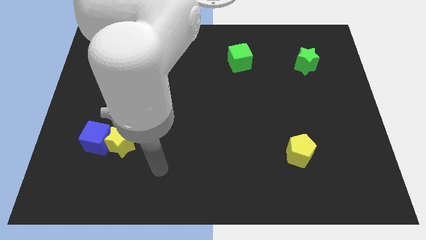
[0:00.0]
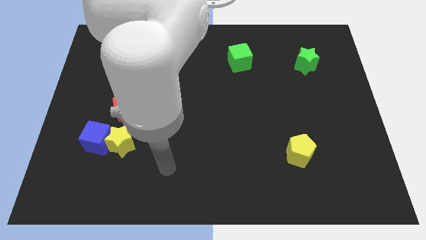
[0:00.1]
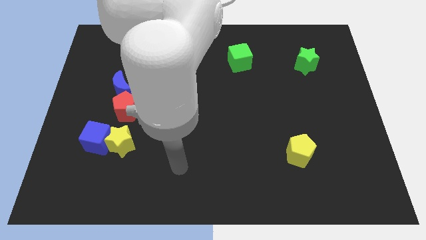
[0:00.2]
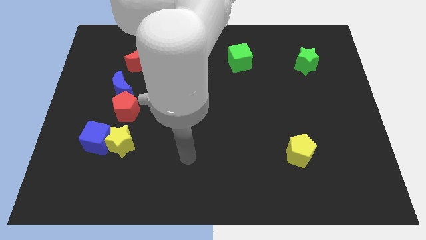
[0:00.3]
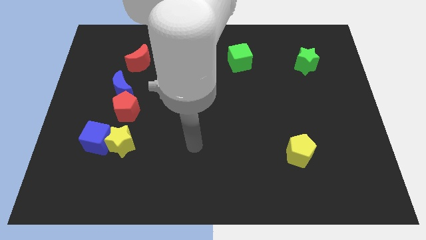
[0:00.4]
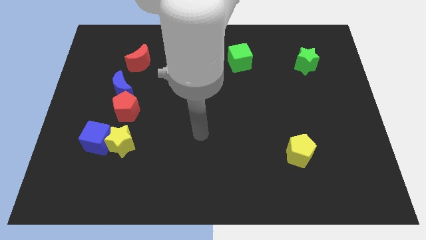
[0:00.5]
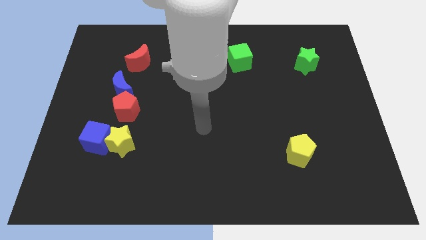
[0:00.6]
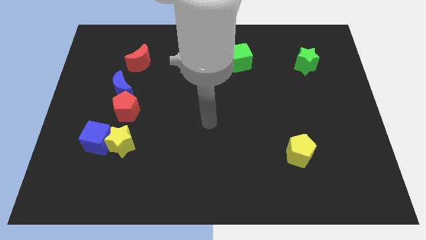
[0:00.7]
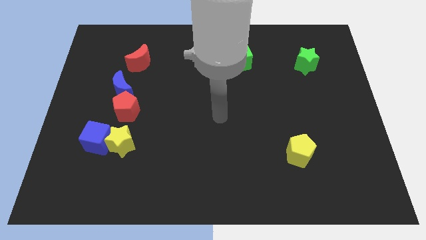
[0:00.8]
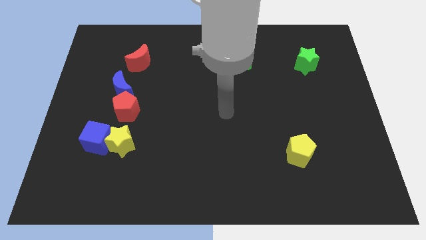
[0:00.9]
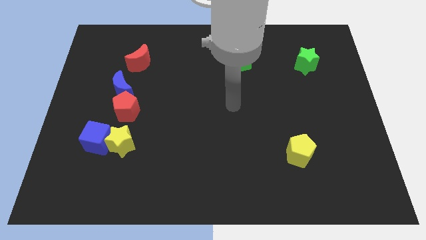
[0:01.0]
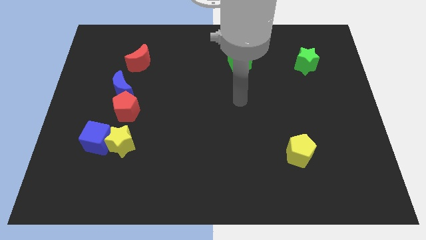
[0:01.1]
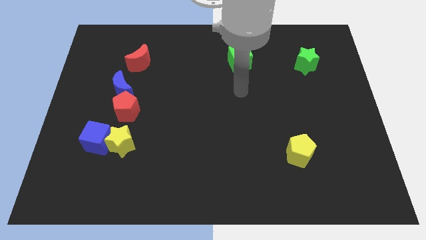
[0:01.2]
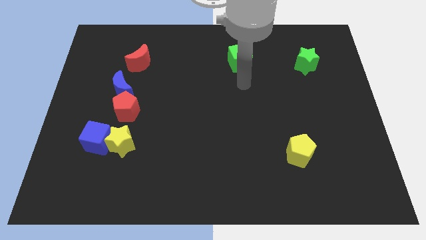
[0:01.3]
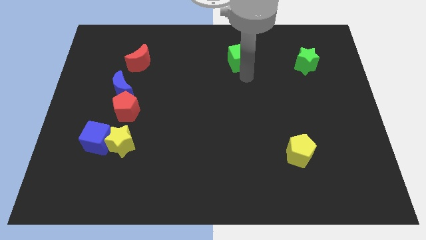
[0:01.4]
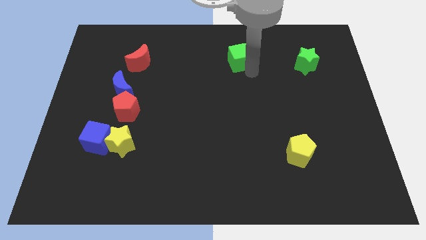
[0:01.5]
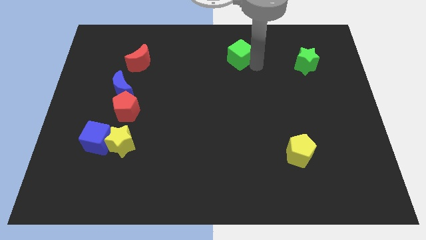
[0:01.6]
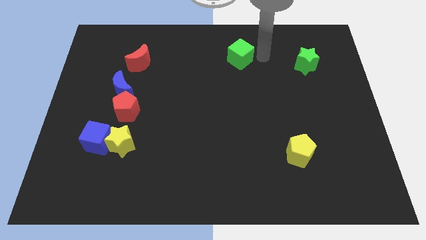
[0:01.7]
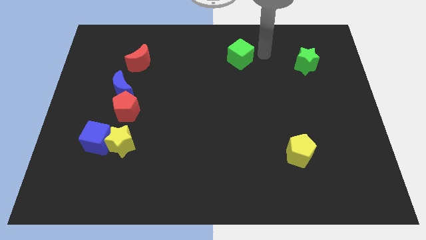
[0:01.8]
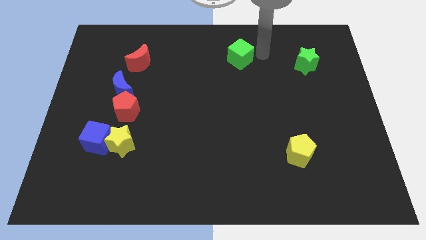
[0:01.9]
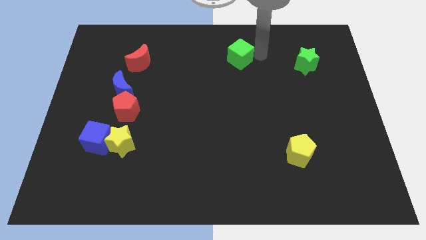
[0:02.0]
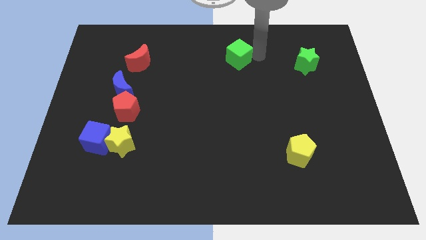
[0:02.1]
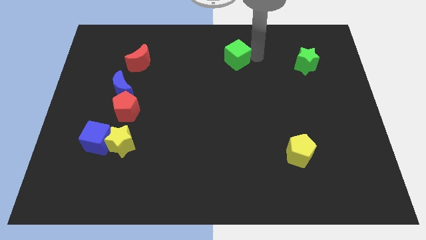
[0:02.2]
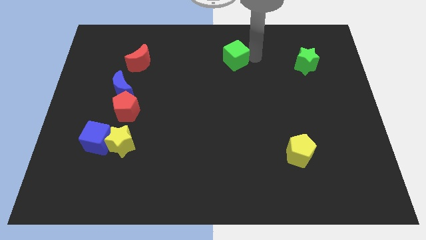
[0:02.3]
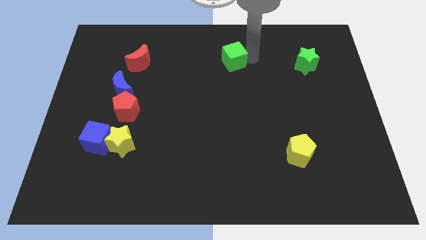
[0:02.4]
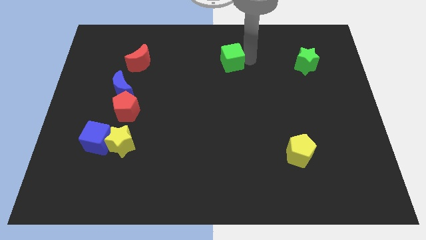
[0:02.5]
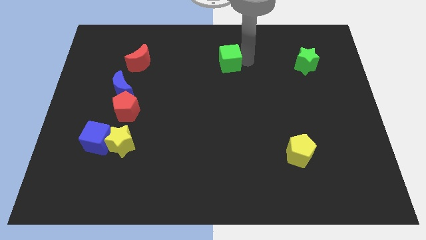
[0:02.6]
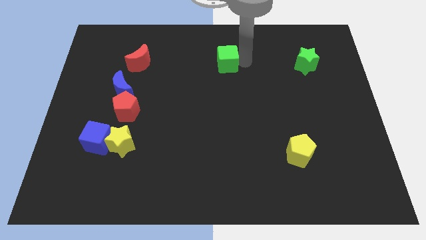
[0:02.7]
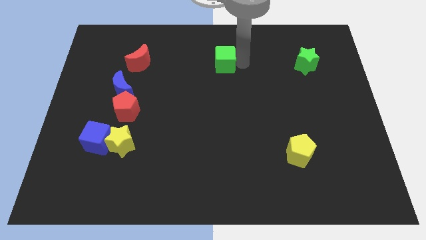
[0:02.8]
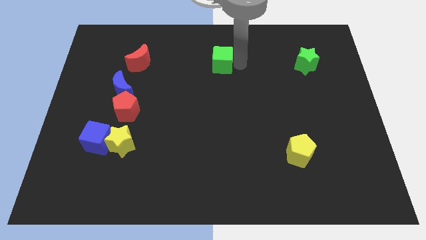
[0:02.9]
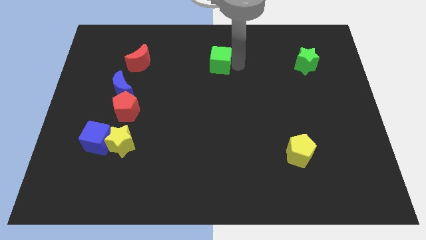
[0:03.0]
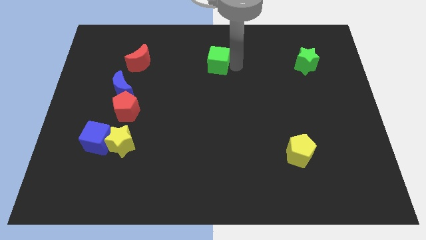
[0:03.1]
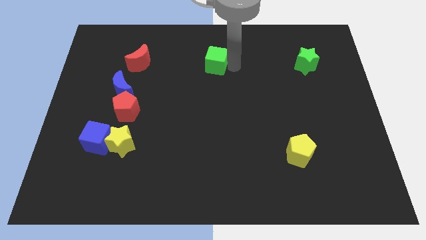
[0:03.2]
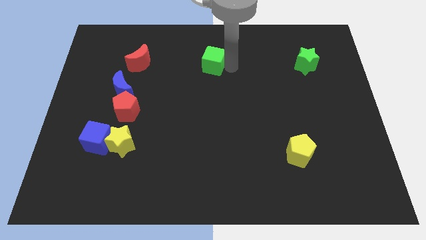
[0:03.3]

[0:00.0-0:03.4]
move the green cube to the left somewhat

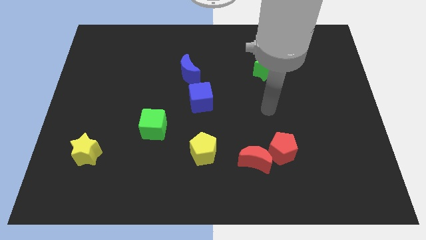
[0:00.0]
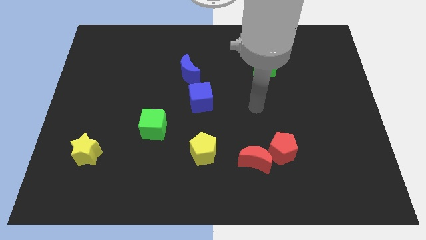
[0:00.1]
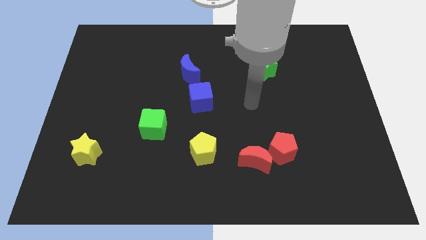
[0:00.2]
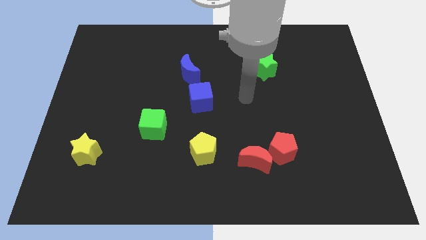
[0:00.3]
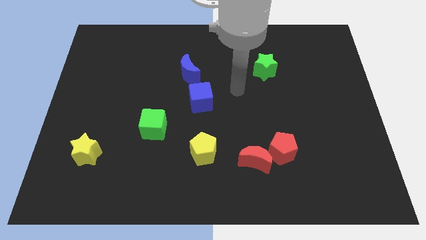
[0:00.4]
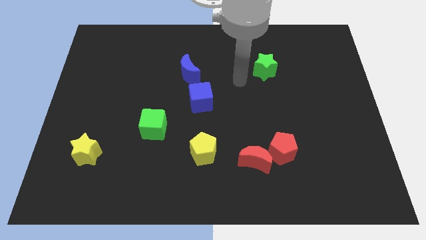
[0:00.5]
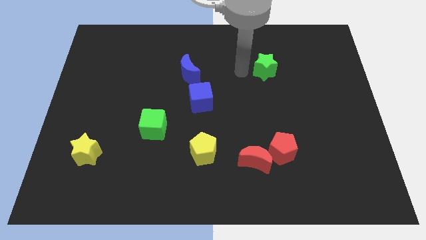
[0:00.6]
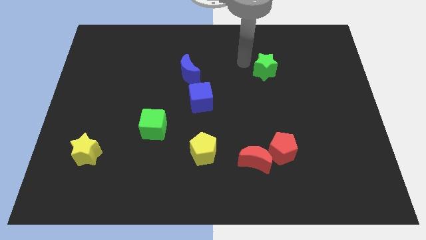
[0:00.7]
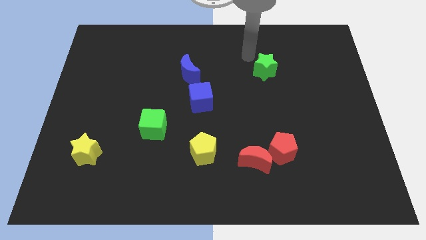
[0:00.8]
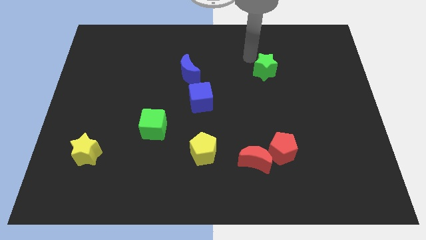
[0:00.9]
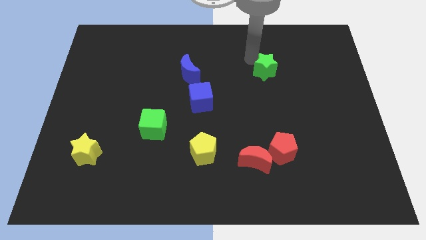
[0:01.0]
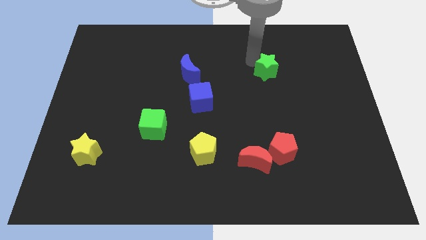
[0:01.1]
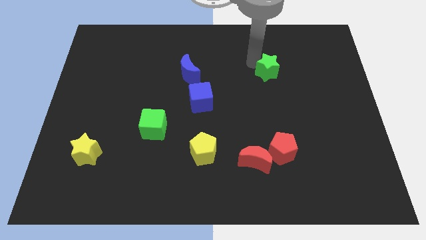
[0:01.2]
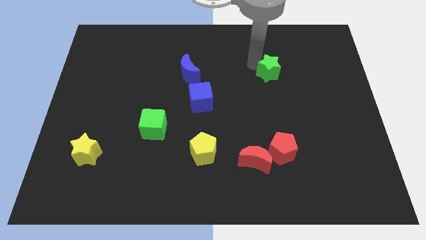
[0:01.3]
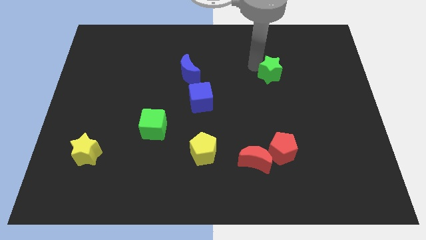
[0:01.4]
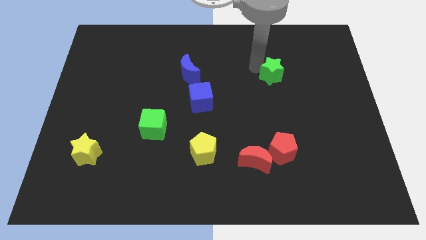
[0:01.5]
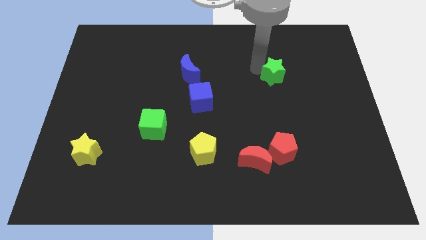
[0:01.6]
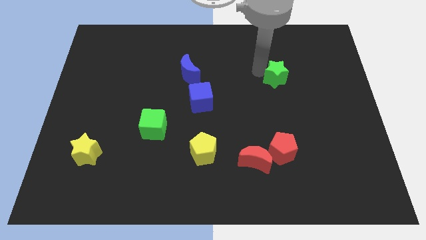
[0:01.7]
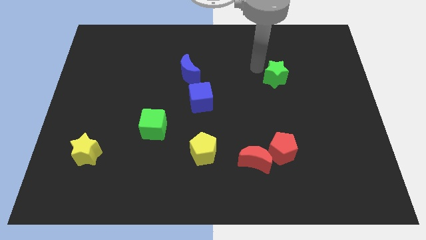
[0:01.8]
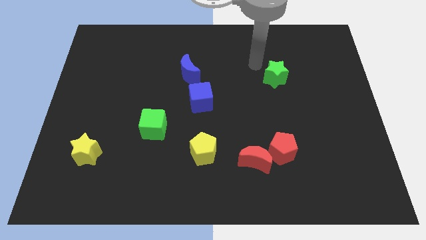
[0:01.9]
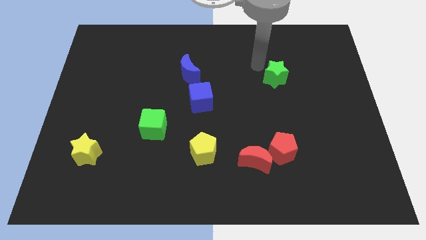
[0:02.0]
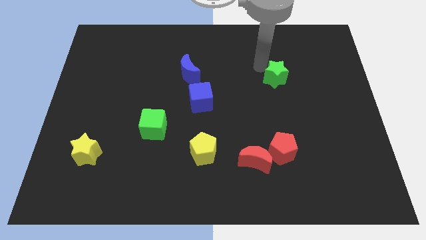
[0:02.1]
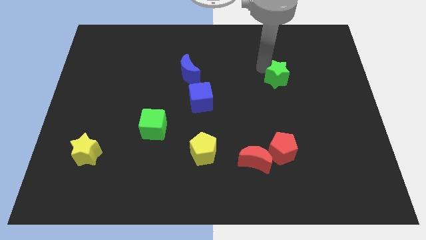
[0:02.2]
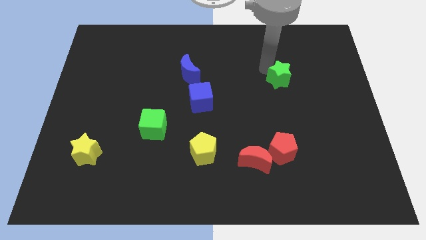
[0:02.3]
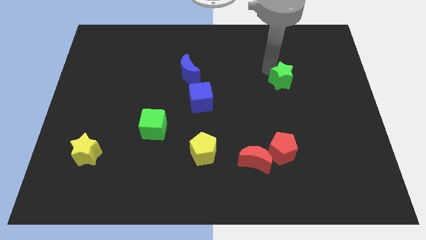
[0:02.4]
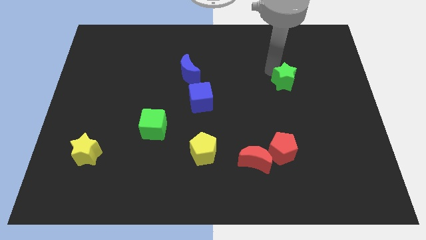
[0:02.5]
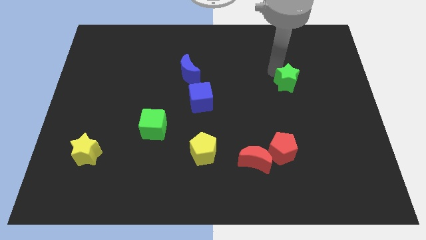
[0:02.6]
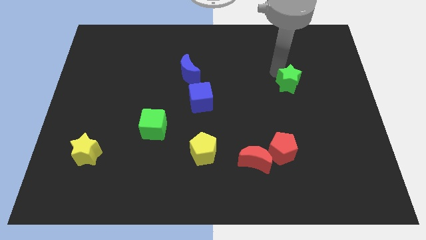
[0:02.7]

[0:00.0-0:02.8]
push the green star a little diagonally downwards and right

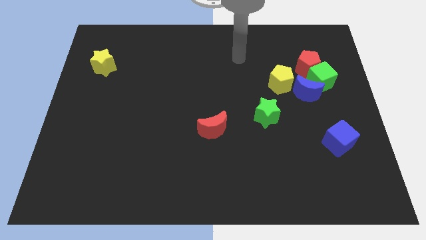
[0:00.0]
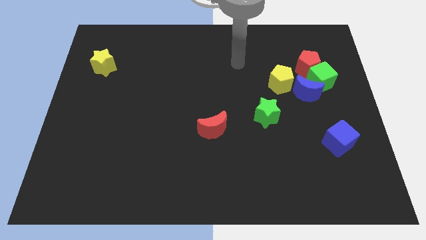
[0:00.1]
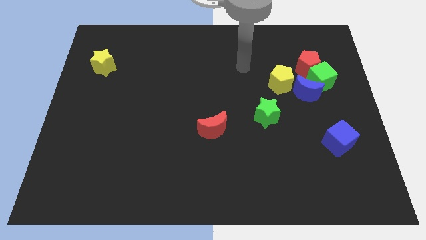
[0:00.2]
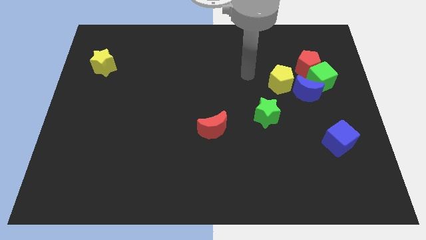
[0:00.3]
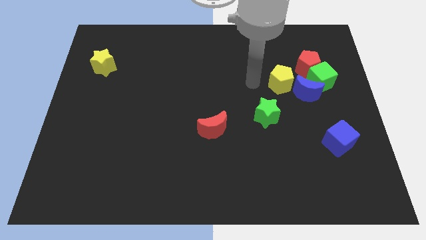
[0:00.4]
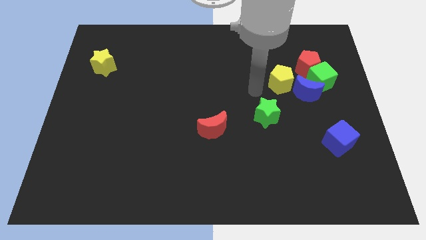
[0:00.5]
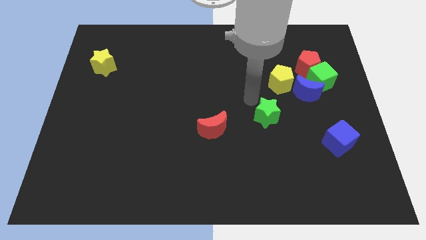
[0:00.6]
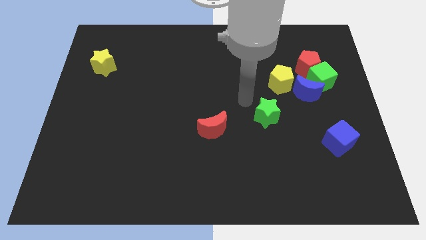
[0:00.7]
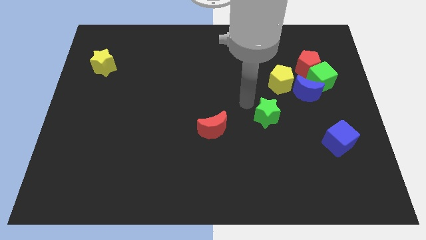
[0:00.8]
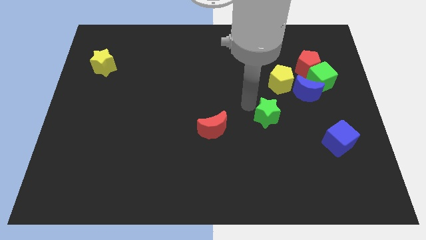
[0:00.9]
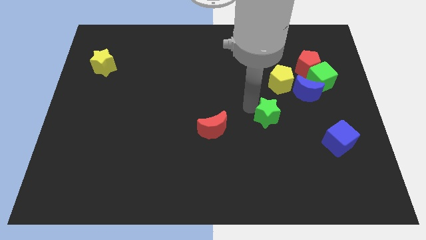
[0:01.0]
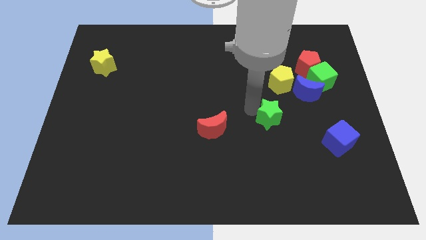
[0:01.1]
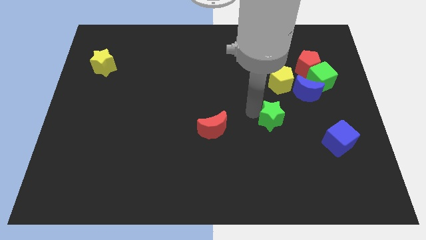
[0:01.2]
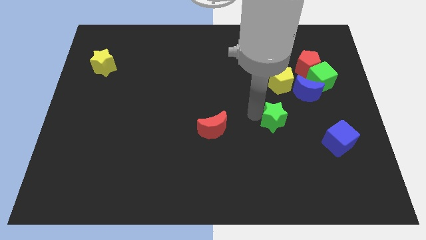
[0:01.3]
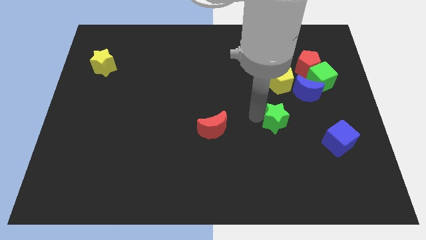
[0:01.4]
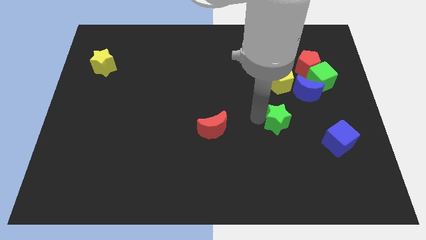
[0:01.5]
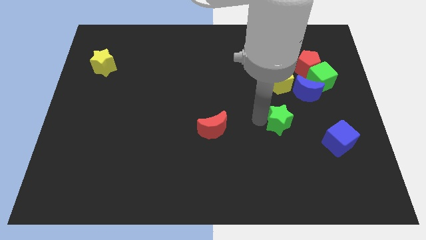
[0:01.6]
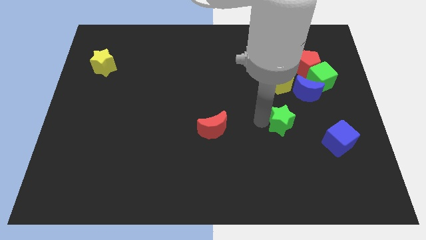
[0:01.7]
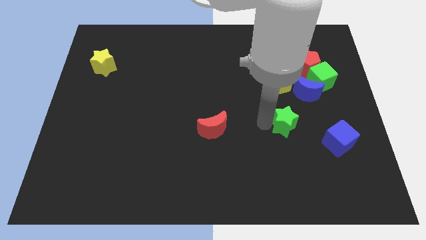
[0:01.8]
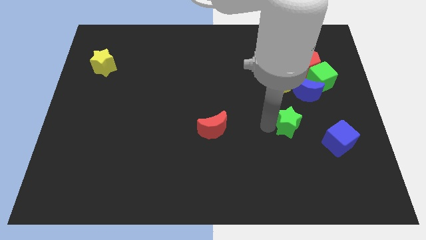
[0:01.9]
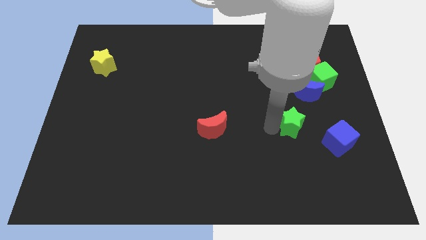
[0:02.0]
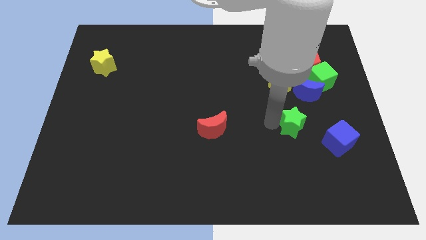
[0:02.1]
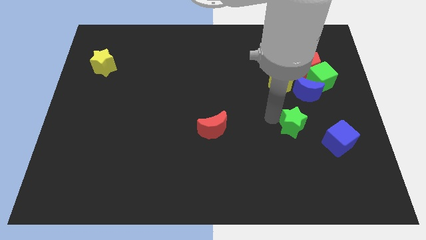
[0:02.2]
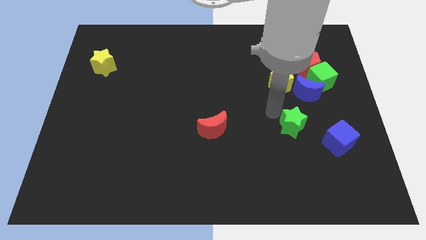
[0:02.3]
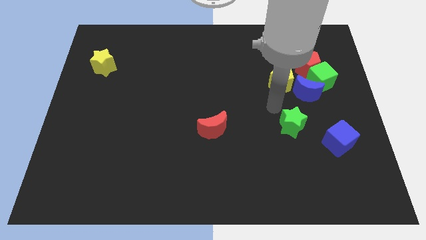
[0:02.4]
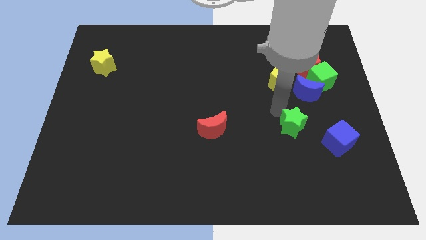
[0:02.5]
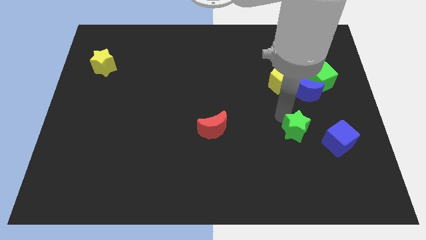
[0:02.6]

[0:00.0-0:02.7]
slide the green star down and right a bit
